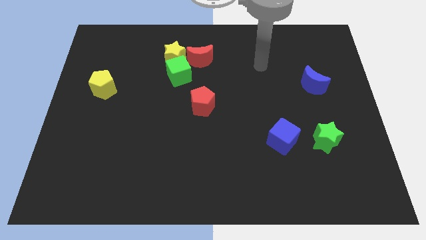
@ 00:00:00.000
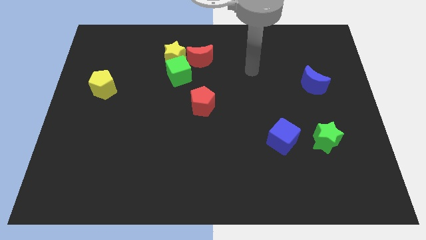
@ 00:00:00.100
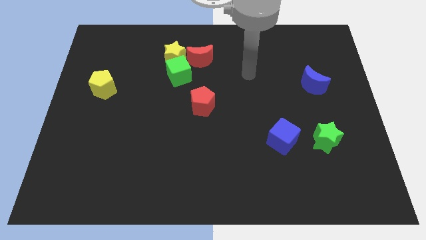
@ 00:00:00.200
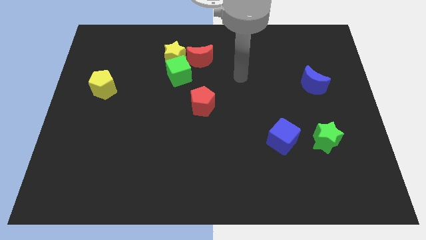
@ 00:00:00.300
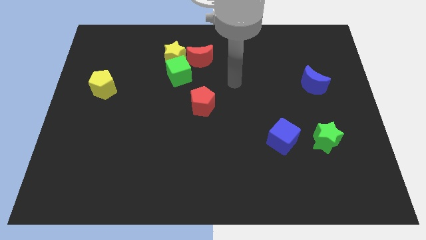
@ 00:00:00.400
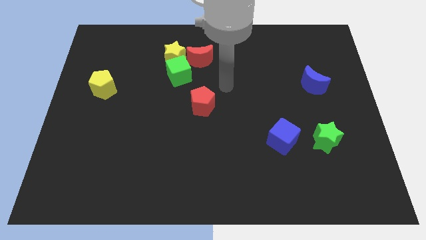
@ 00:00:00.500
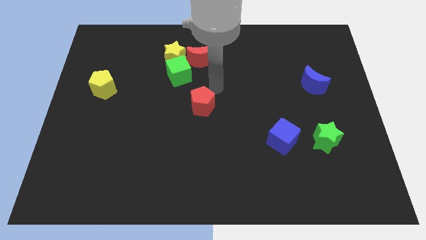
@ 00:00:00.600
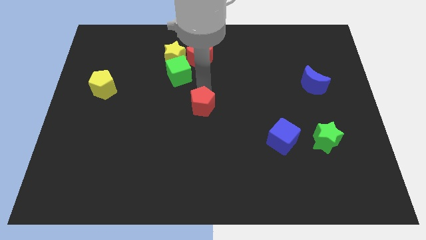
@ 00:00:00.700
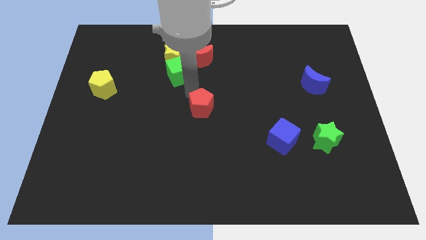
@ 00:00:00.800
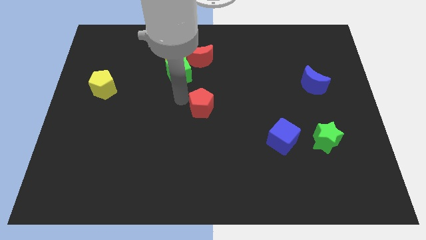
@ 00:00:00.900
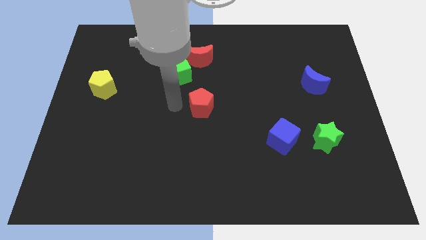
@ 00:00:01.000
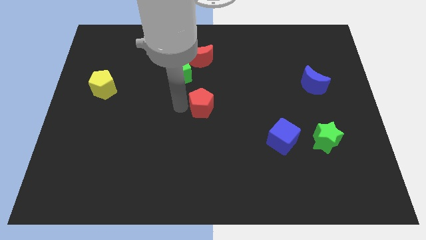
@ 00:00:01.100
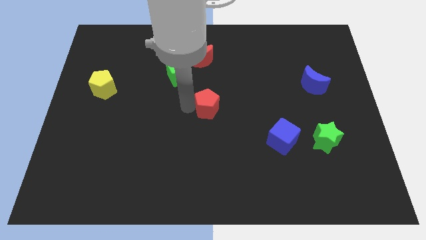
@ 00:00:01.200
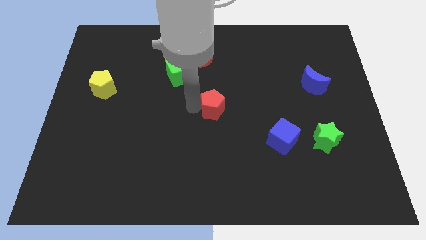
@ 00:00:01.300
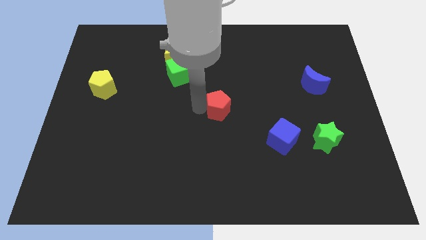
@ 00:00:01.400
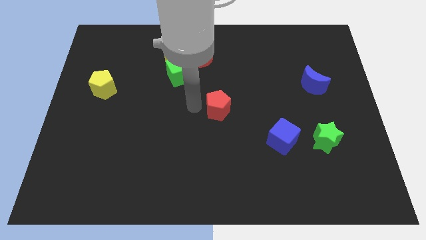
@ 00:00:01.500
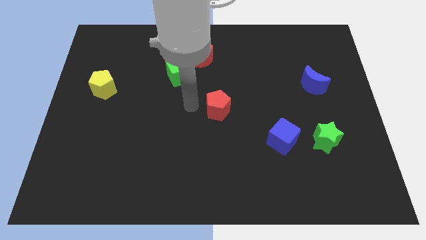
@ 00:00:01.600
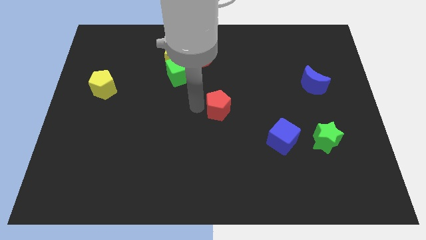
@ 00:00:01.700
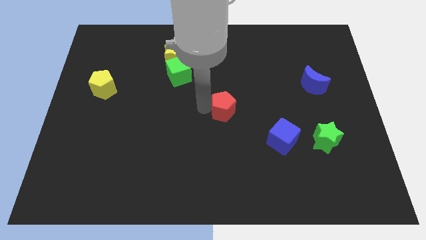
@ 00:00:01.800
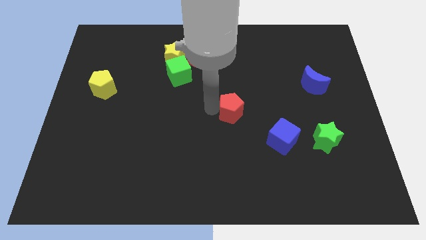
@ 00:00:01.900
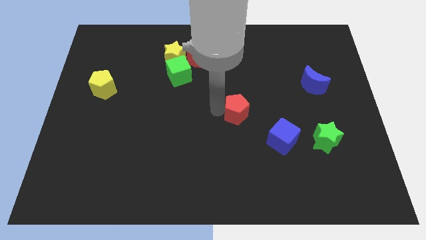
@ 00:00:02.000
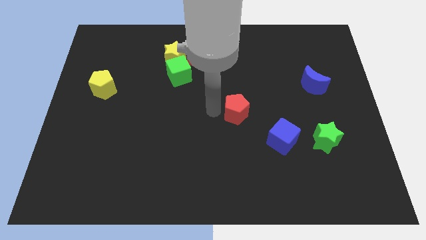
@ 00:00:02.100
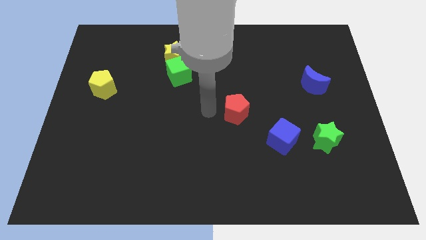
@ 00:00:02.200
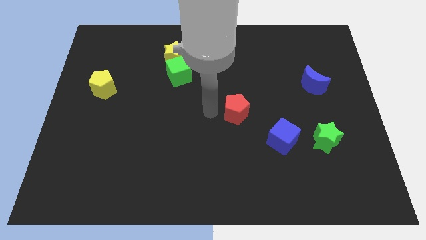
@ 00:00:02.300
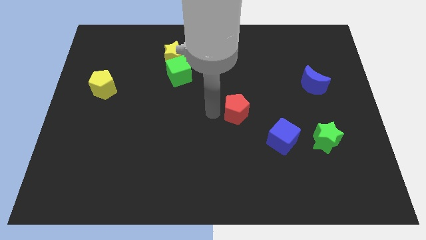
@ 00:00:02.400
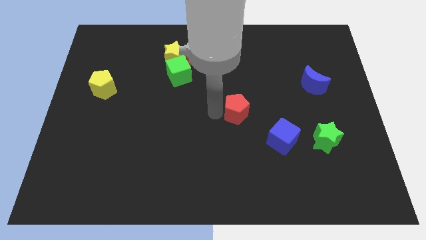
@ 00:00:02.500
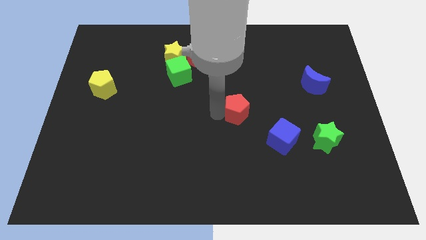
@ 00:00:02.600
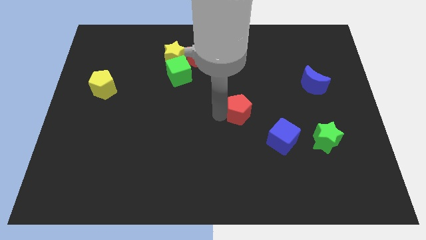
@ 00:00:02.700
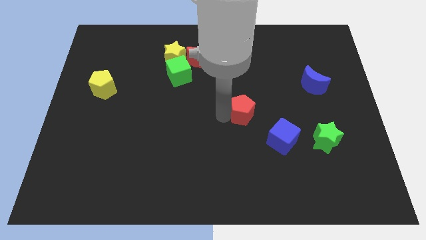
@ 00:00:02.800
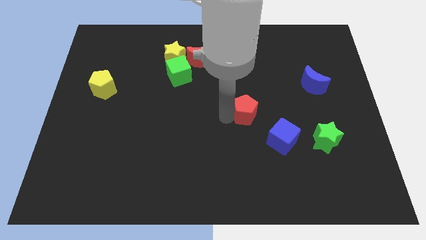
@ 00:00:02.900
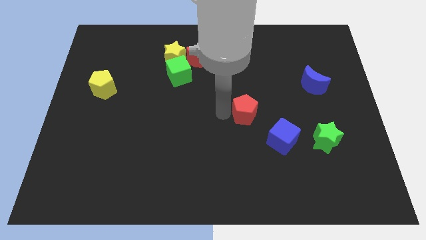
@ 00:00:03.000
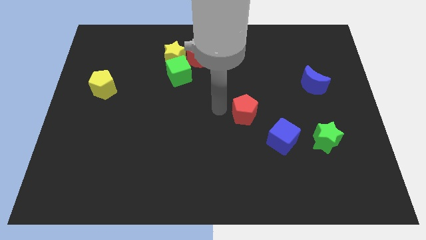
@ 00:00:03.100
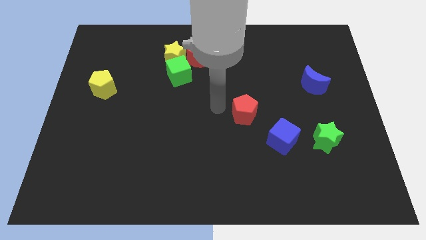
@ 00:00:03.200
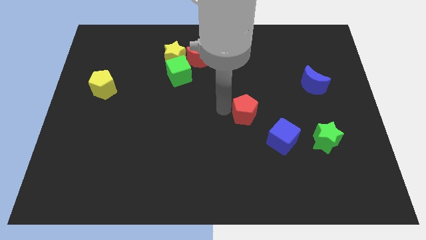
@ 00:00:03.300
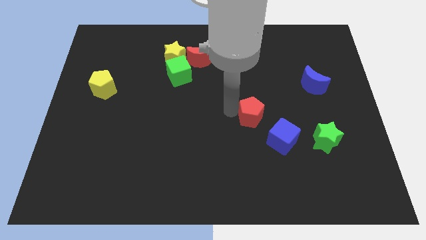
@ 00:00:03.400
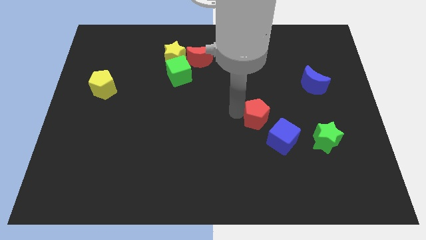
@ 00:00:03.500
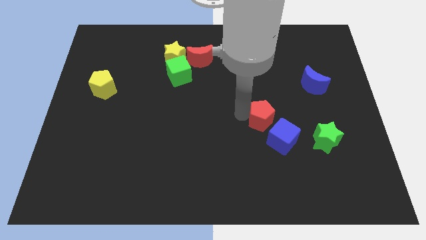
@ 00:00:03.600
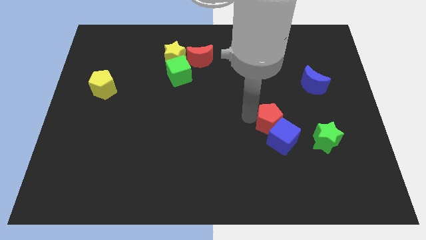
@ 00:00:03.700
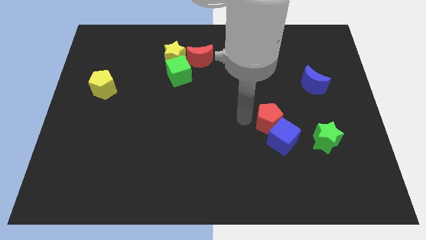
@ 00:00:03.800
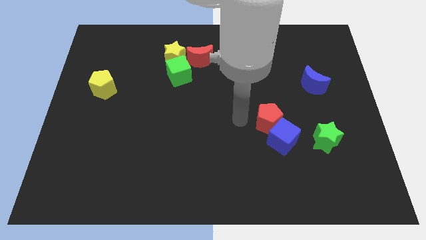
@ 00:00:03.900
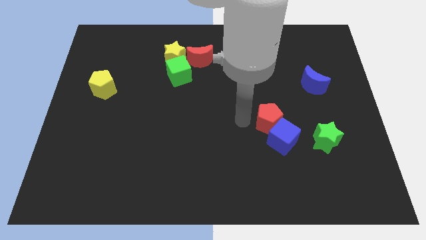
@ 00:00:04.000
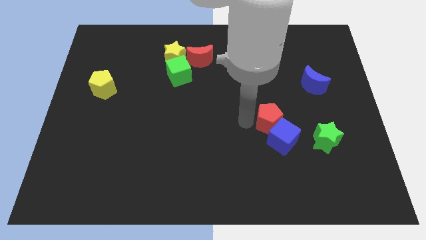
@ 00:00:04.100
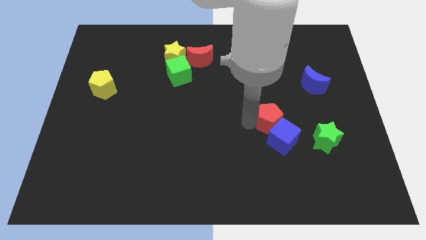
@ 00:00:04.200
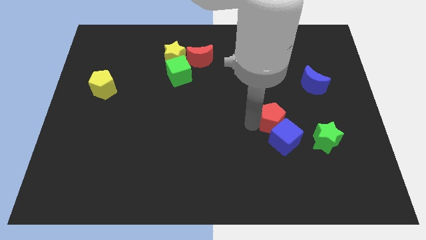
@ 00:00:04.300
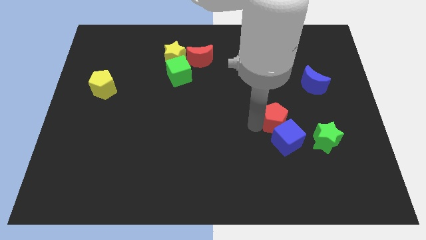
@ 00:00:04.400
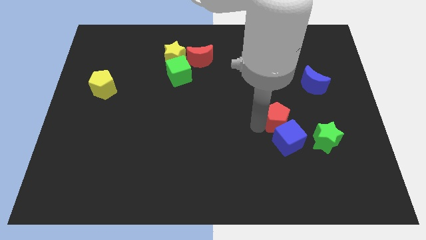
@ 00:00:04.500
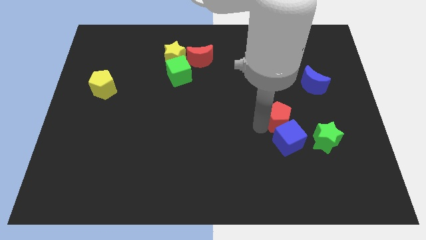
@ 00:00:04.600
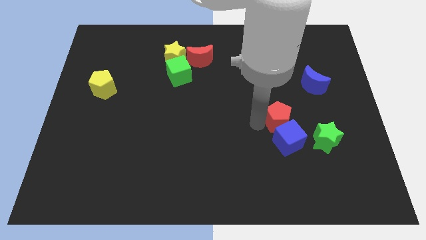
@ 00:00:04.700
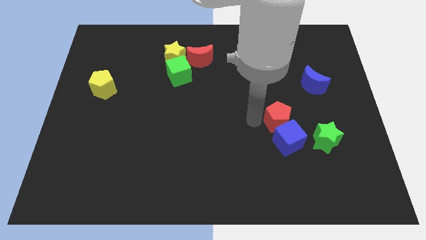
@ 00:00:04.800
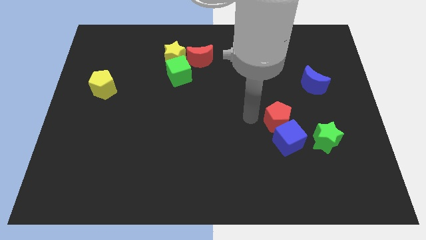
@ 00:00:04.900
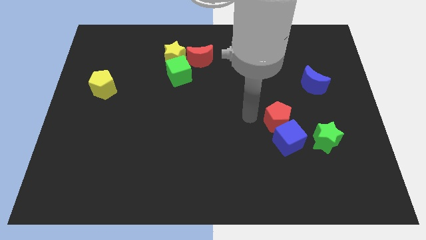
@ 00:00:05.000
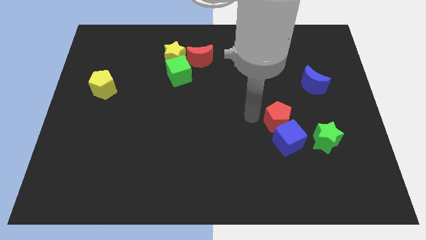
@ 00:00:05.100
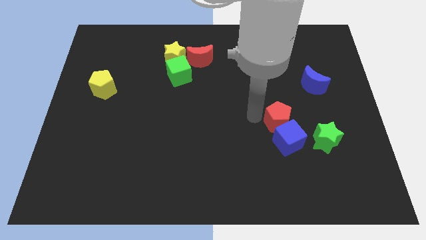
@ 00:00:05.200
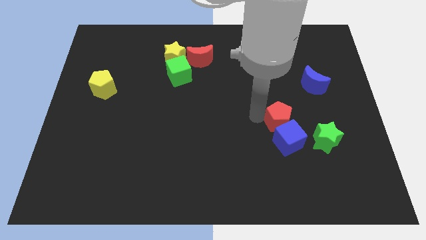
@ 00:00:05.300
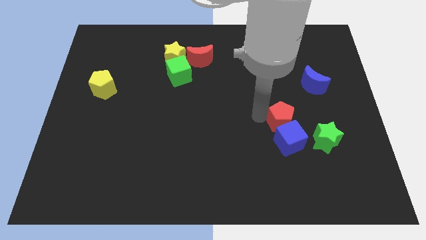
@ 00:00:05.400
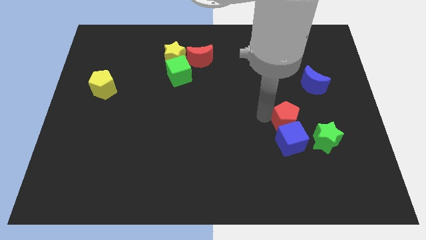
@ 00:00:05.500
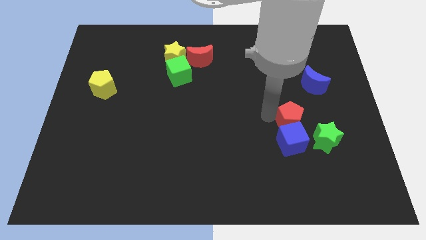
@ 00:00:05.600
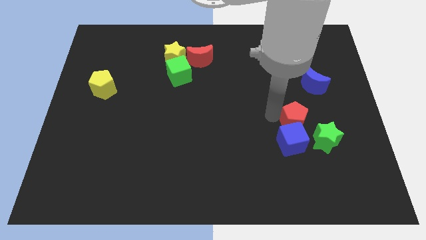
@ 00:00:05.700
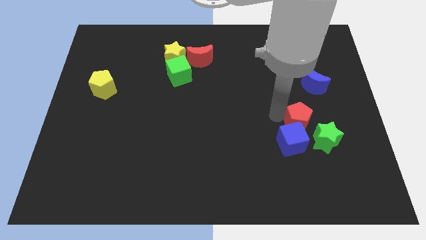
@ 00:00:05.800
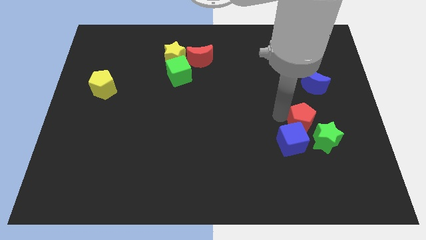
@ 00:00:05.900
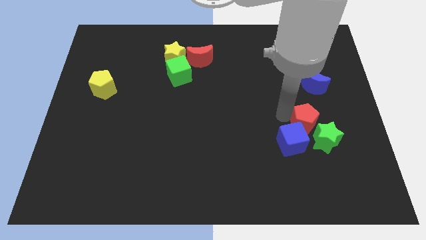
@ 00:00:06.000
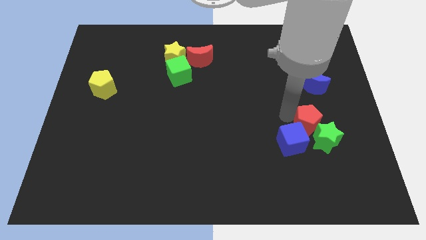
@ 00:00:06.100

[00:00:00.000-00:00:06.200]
push the red pentagon to the green star

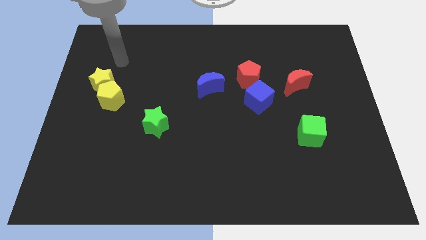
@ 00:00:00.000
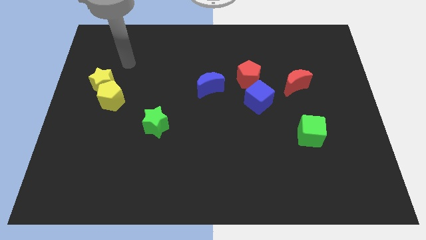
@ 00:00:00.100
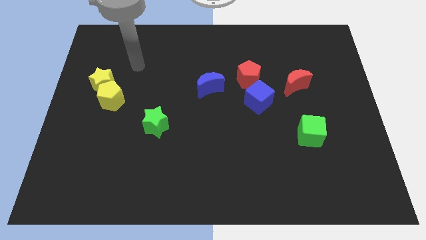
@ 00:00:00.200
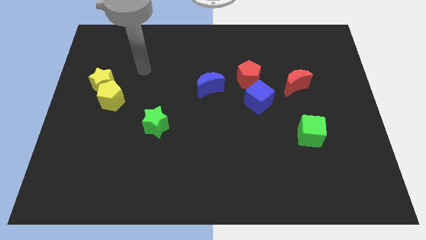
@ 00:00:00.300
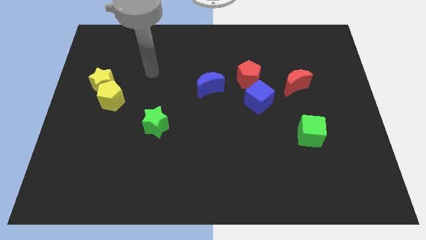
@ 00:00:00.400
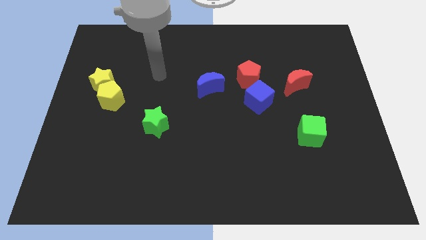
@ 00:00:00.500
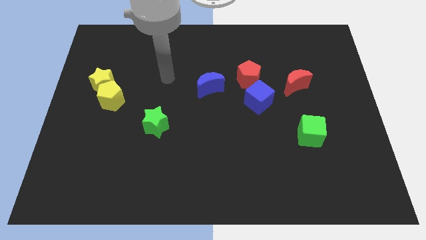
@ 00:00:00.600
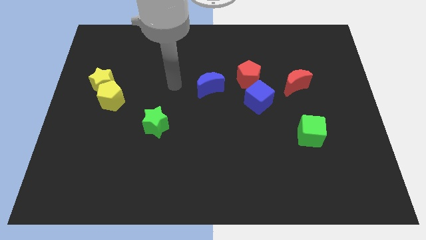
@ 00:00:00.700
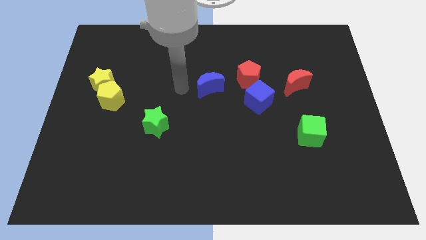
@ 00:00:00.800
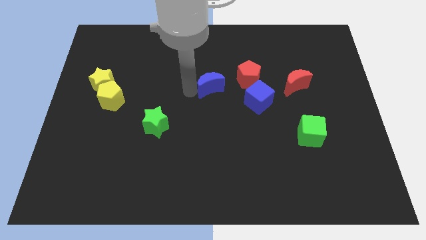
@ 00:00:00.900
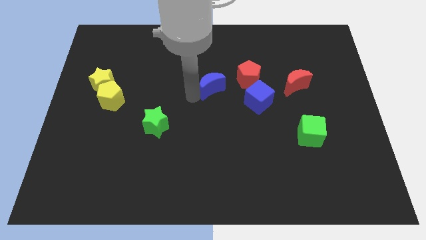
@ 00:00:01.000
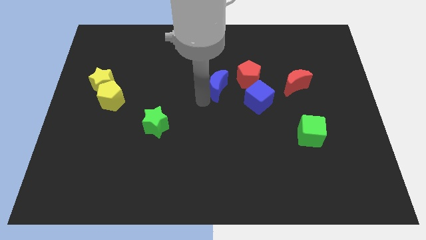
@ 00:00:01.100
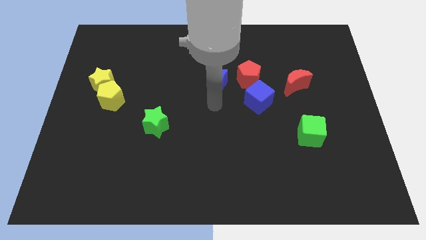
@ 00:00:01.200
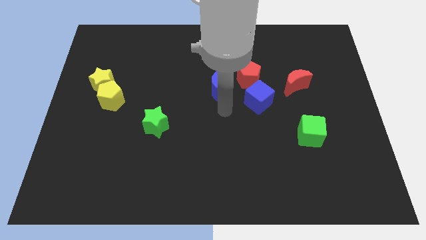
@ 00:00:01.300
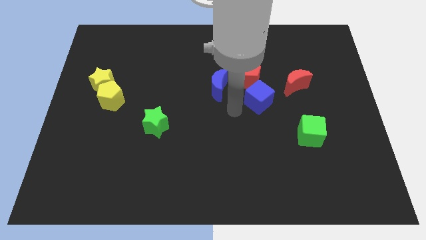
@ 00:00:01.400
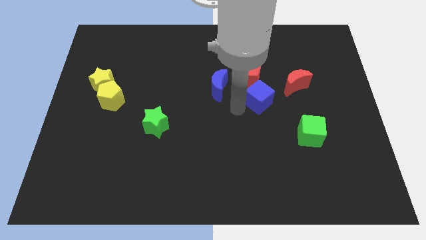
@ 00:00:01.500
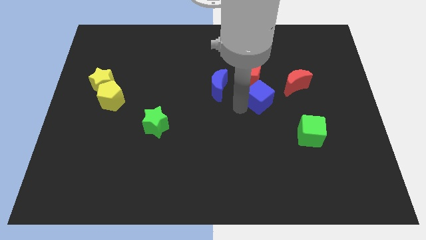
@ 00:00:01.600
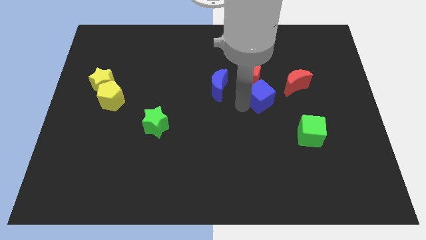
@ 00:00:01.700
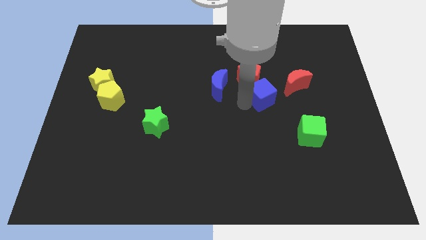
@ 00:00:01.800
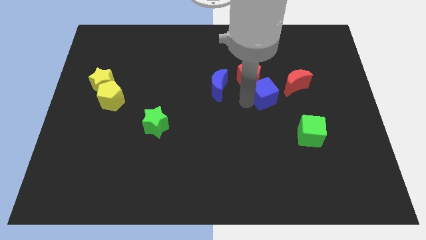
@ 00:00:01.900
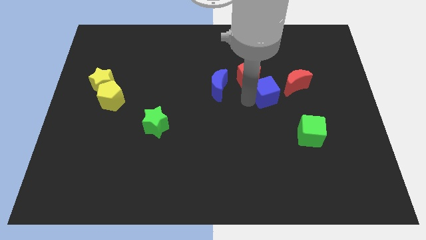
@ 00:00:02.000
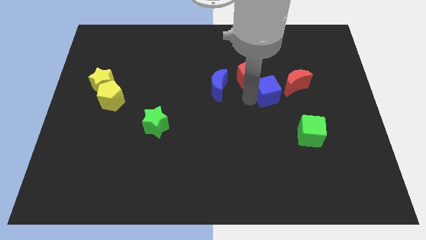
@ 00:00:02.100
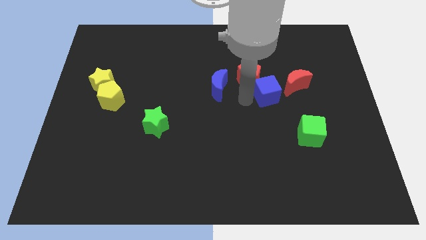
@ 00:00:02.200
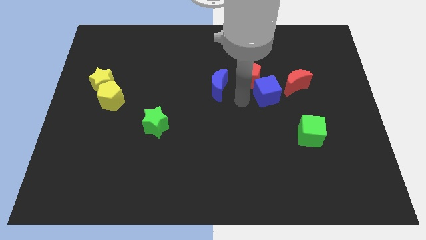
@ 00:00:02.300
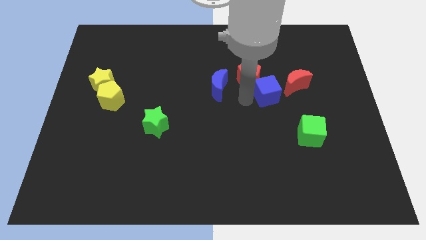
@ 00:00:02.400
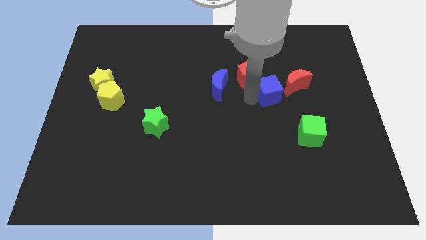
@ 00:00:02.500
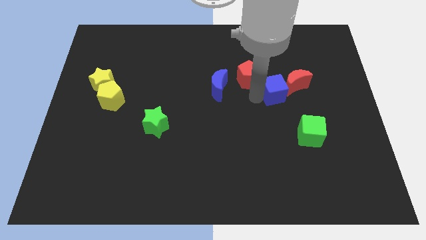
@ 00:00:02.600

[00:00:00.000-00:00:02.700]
put the blue cube close to the red moon
